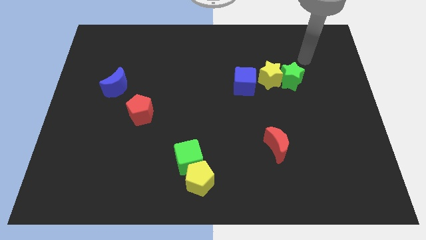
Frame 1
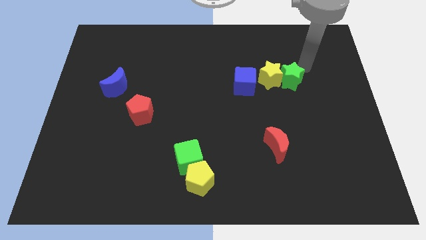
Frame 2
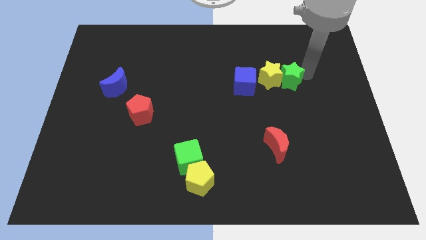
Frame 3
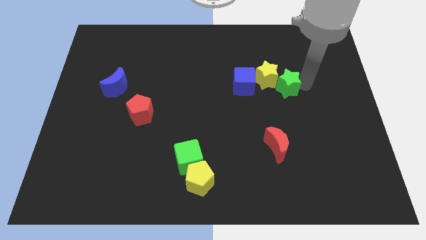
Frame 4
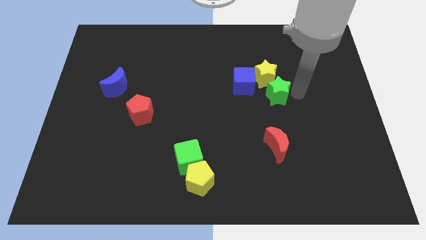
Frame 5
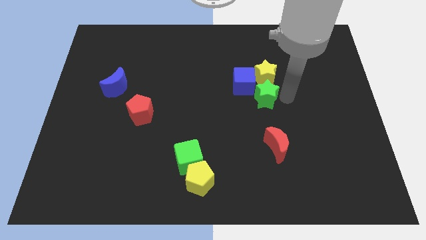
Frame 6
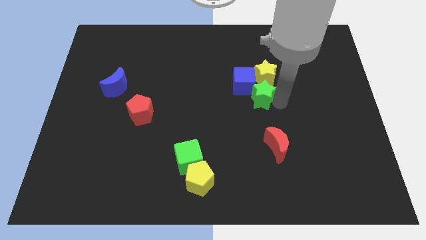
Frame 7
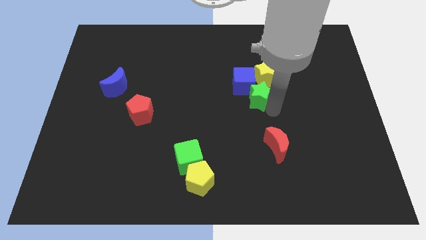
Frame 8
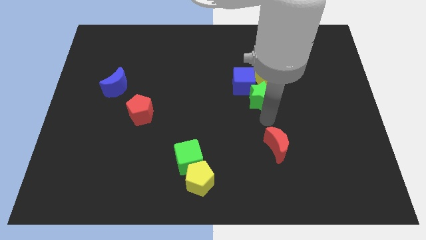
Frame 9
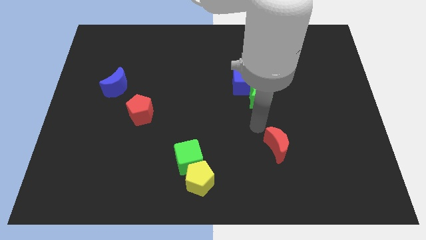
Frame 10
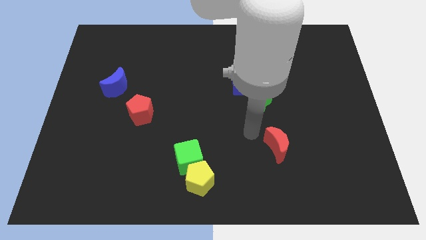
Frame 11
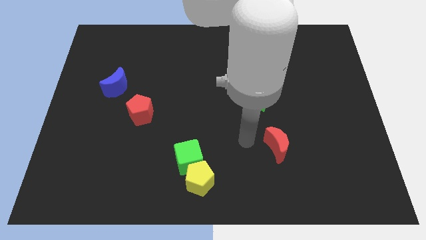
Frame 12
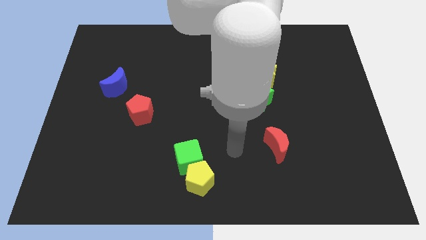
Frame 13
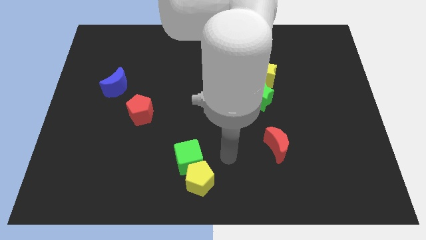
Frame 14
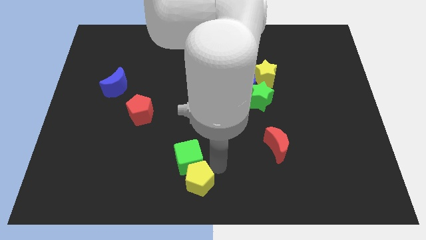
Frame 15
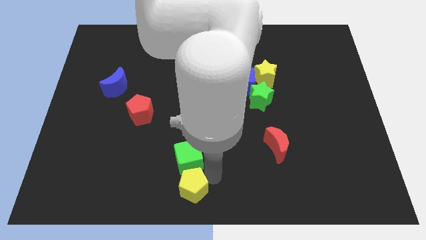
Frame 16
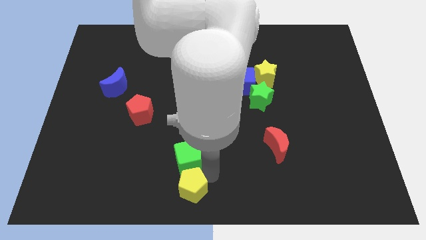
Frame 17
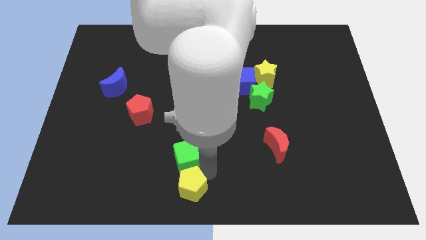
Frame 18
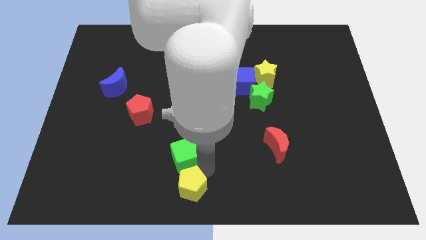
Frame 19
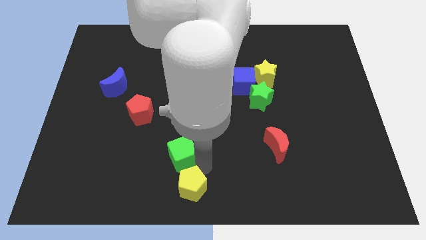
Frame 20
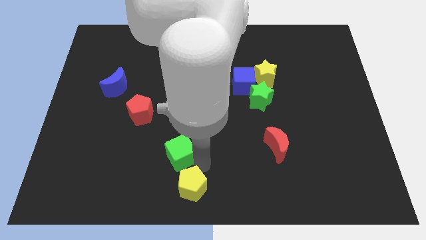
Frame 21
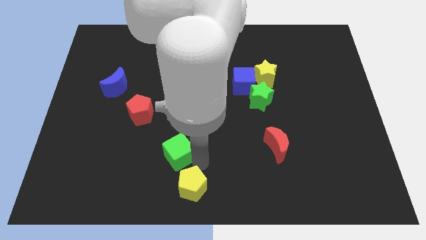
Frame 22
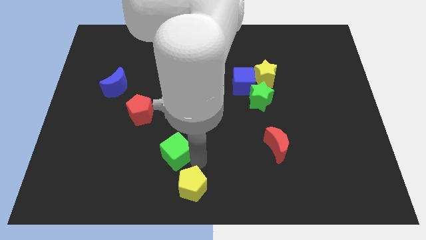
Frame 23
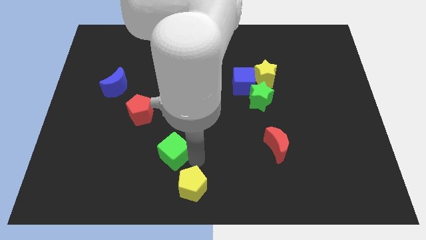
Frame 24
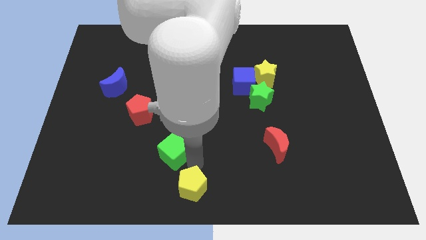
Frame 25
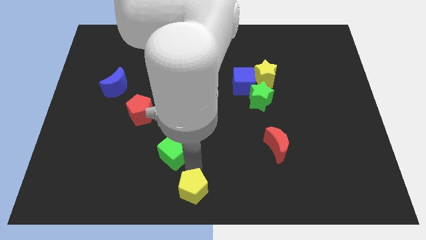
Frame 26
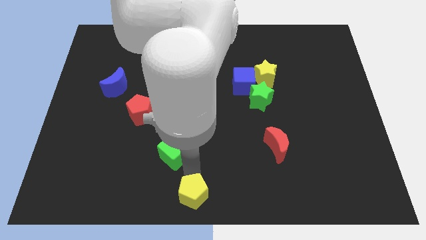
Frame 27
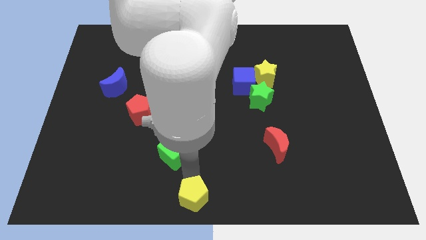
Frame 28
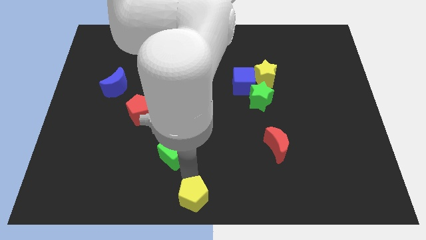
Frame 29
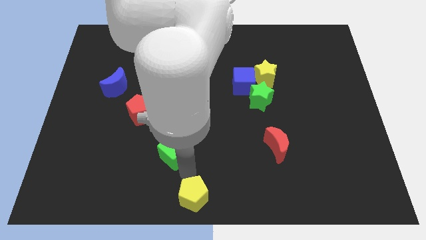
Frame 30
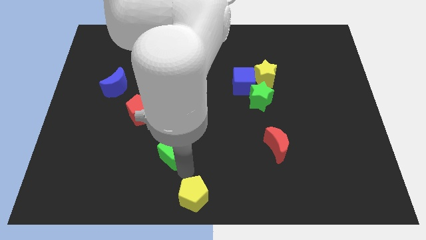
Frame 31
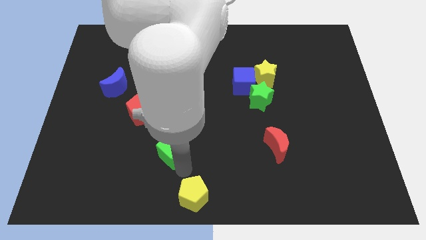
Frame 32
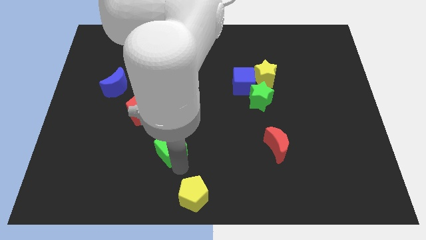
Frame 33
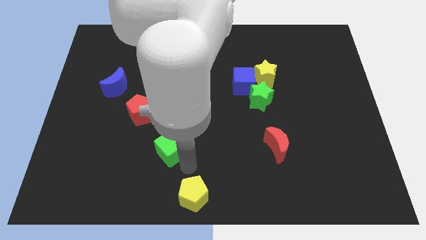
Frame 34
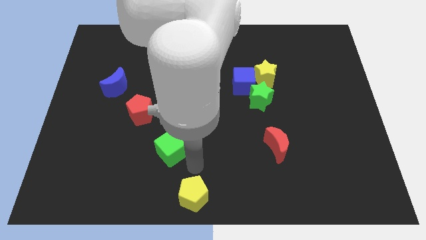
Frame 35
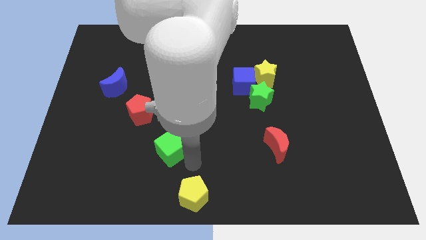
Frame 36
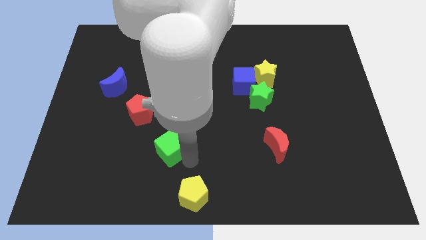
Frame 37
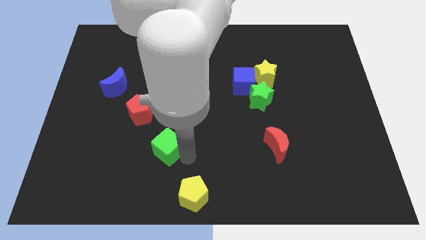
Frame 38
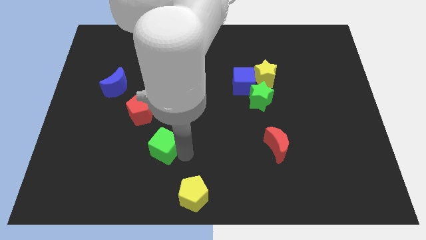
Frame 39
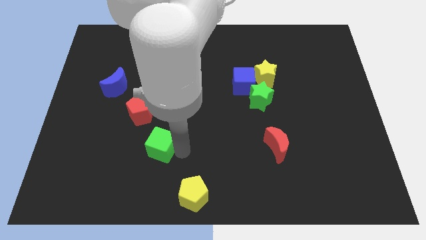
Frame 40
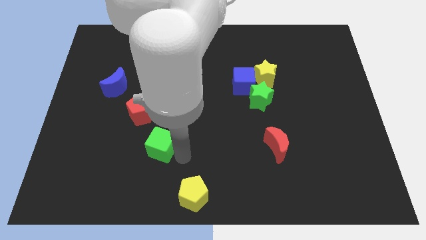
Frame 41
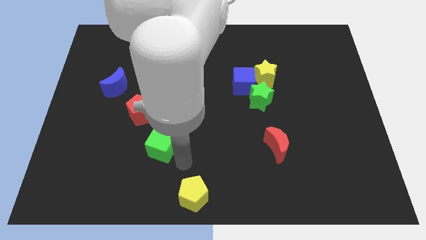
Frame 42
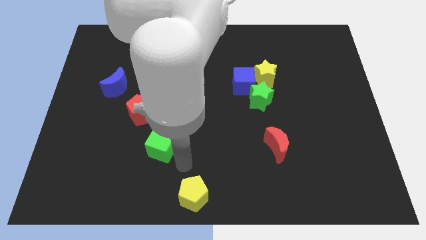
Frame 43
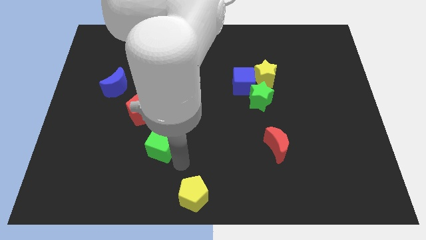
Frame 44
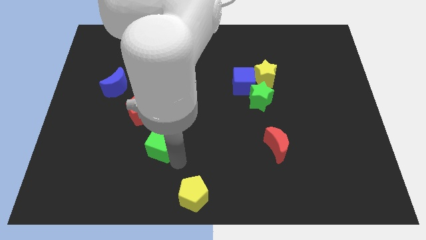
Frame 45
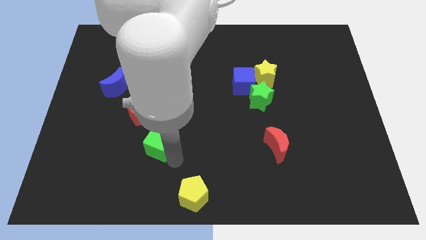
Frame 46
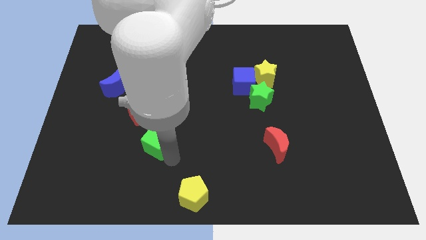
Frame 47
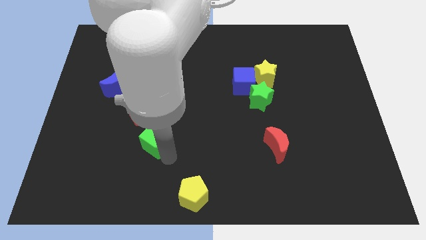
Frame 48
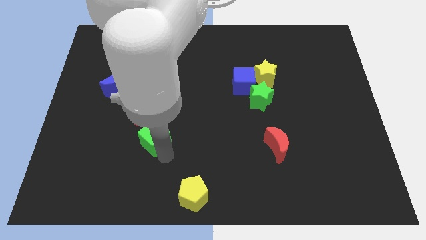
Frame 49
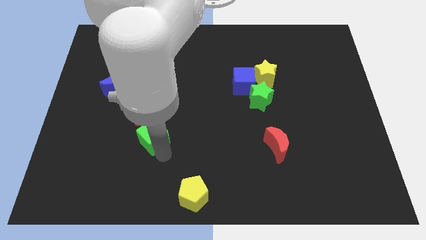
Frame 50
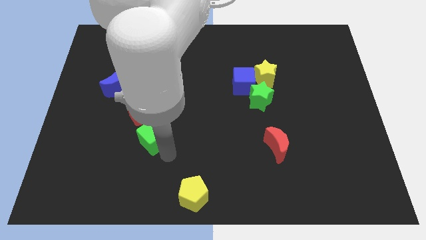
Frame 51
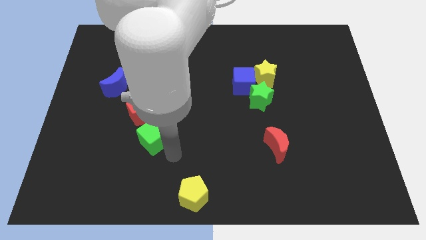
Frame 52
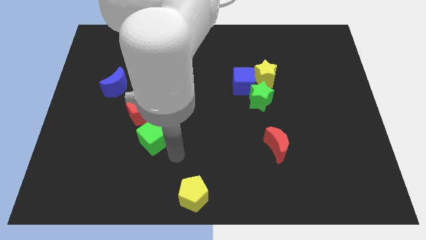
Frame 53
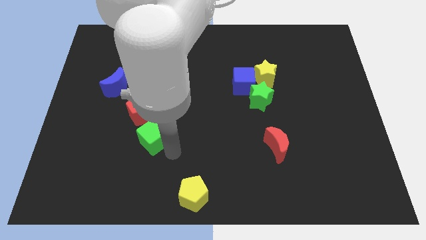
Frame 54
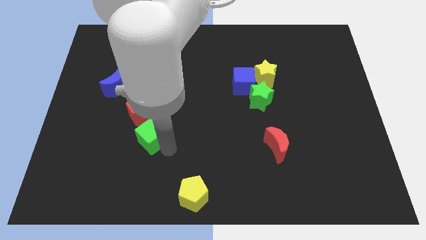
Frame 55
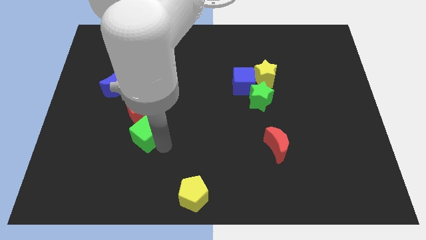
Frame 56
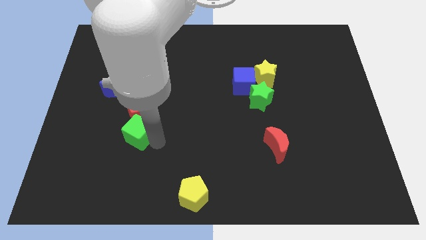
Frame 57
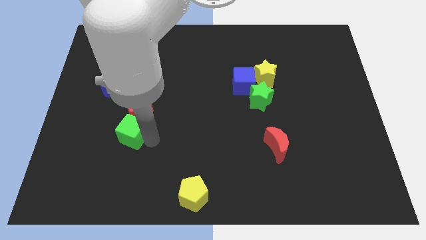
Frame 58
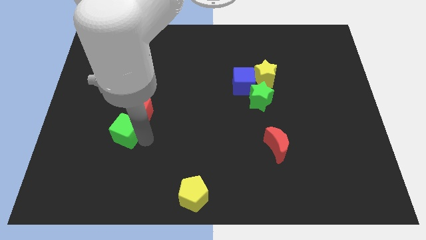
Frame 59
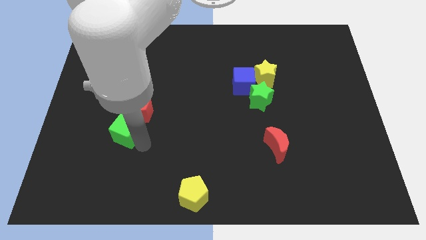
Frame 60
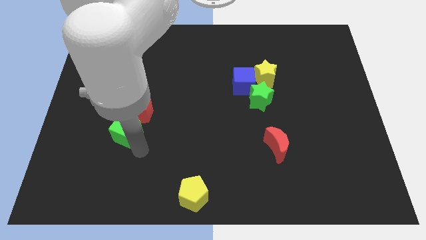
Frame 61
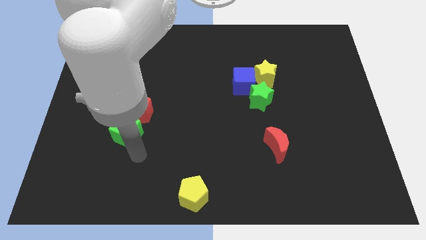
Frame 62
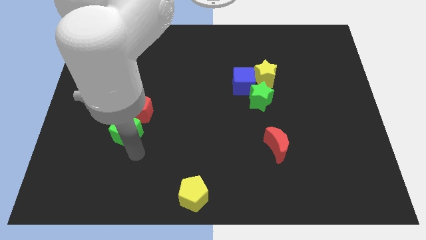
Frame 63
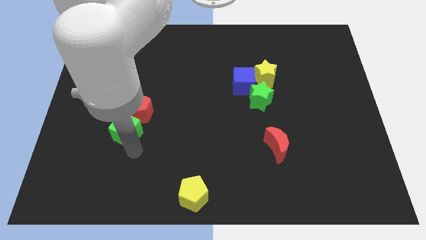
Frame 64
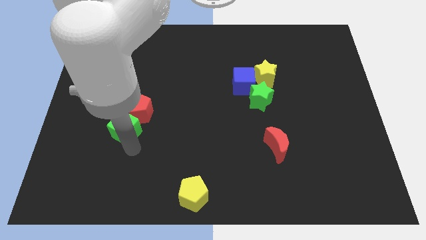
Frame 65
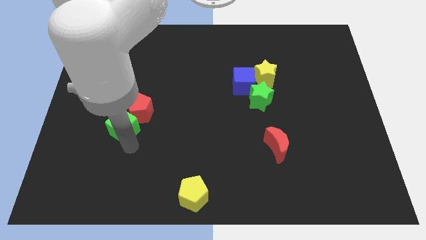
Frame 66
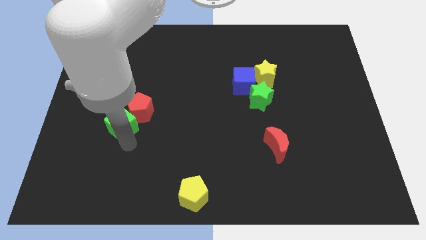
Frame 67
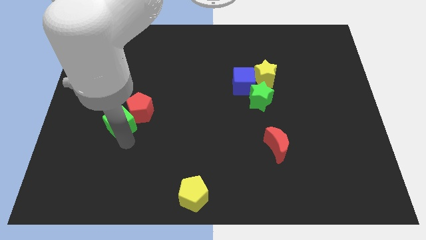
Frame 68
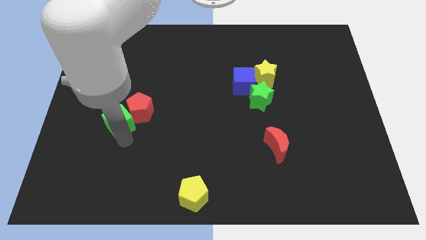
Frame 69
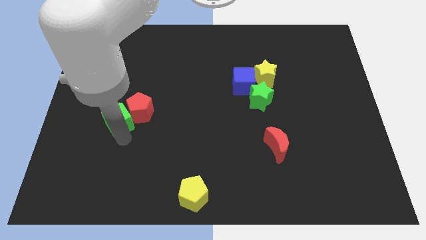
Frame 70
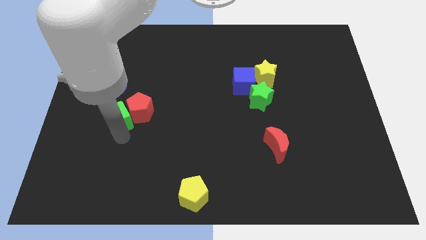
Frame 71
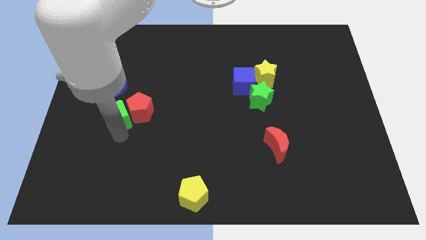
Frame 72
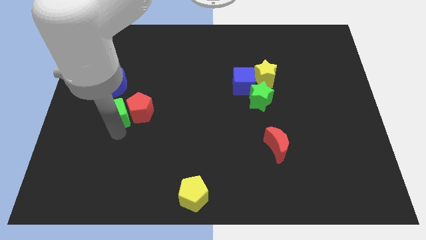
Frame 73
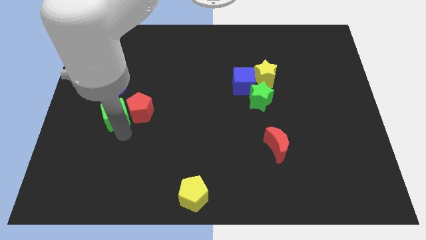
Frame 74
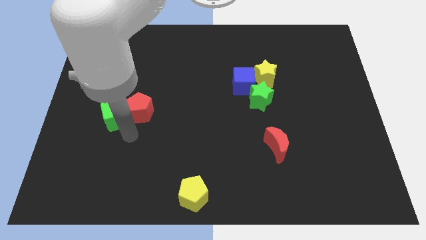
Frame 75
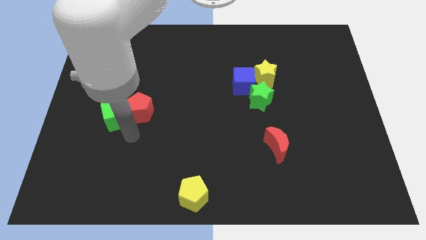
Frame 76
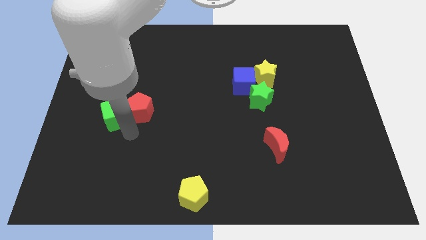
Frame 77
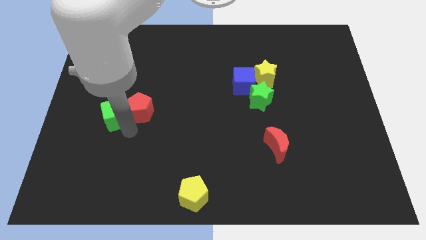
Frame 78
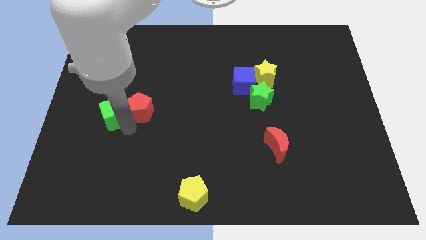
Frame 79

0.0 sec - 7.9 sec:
move the green cube up and then left
